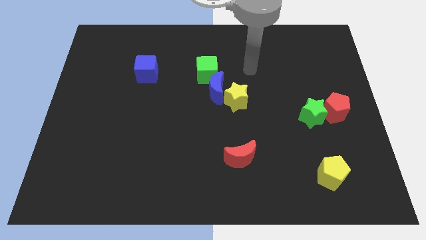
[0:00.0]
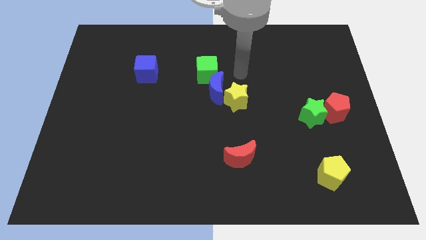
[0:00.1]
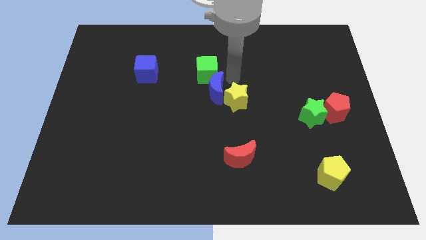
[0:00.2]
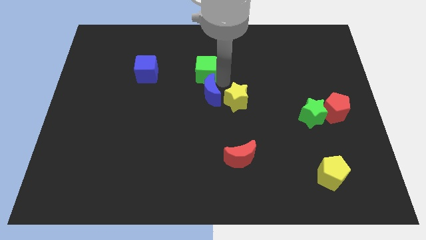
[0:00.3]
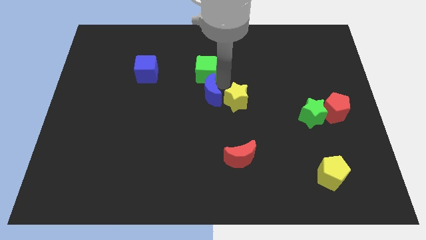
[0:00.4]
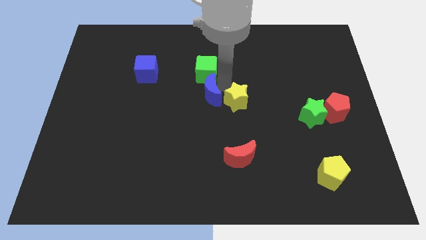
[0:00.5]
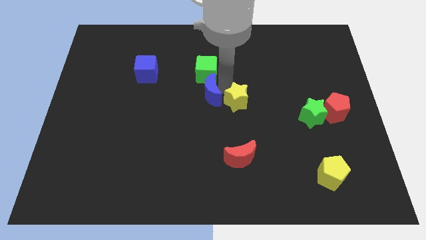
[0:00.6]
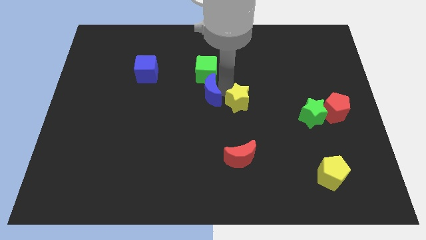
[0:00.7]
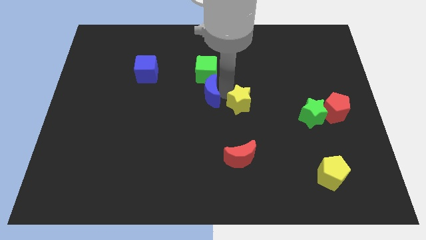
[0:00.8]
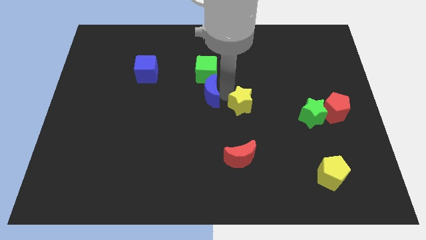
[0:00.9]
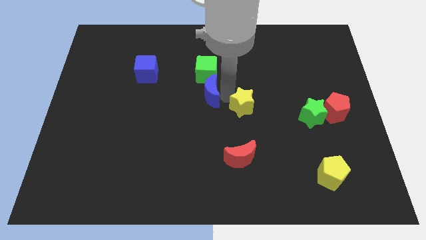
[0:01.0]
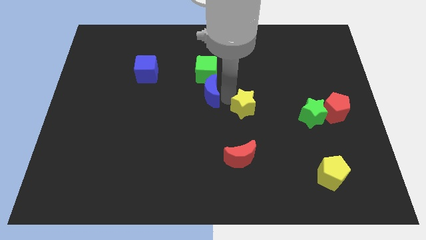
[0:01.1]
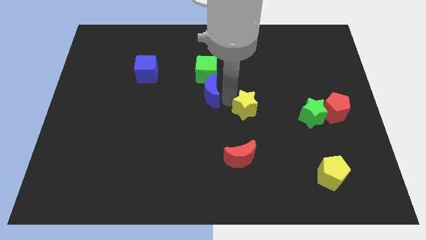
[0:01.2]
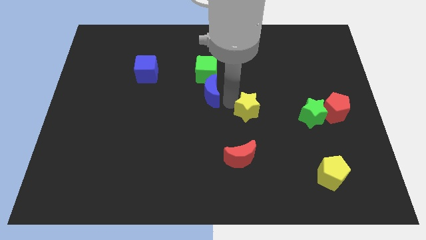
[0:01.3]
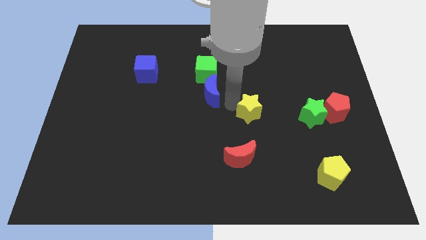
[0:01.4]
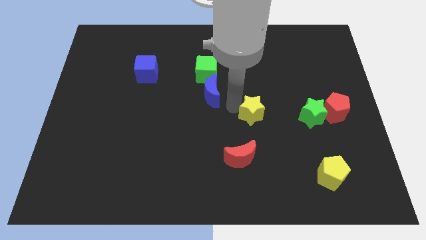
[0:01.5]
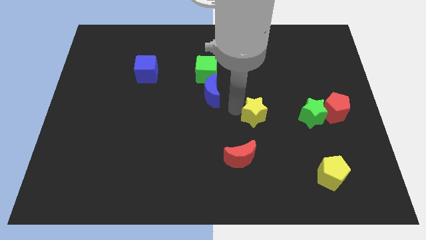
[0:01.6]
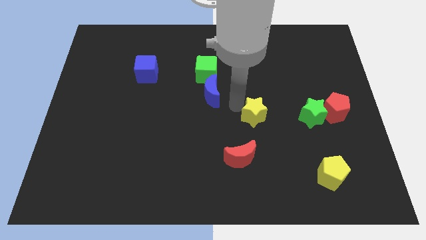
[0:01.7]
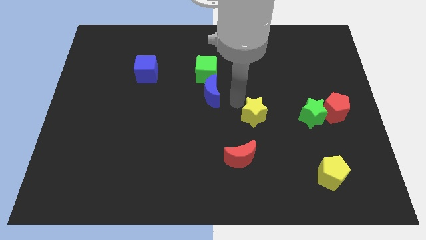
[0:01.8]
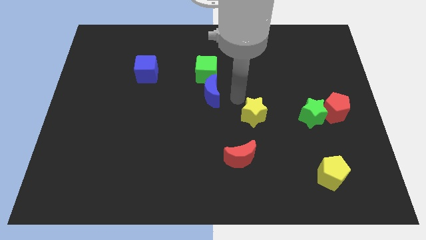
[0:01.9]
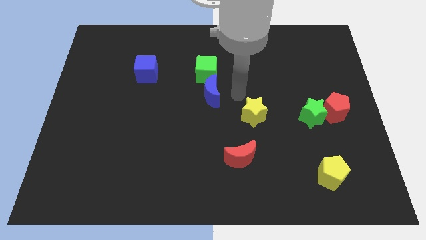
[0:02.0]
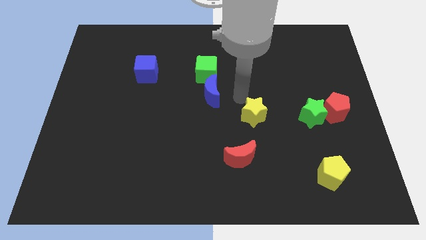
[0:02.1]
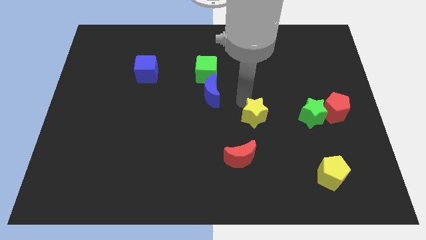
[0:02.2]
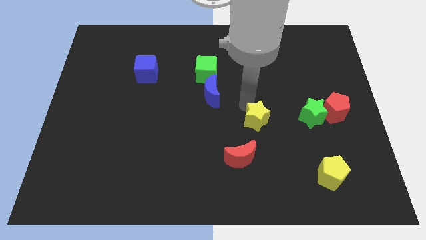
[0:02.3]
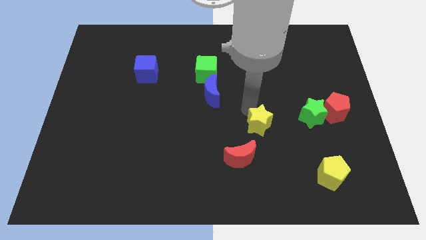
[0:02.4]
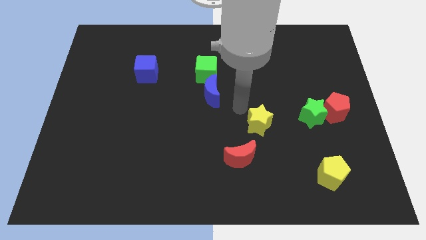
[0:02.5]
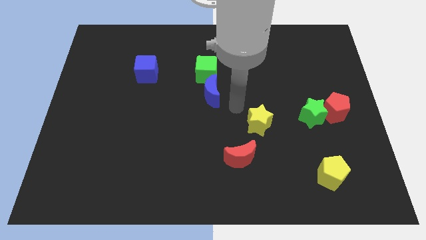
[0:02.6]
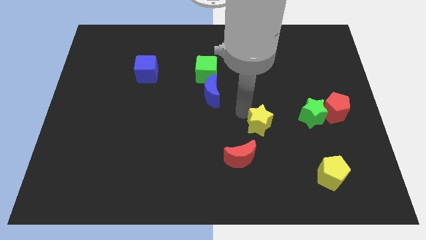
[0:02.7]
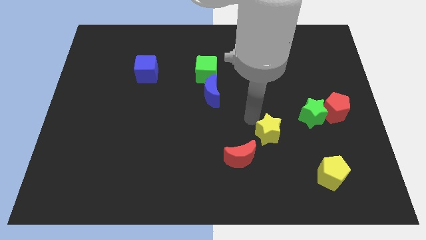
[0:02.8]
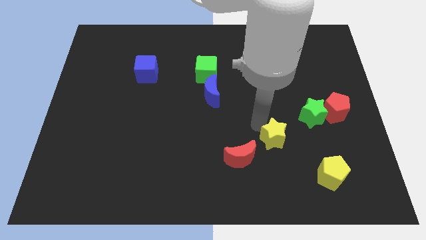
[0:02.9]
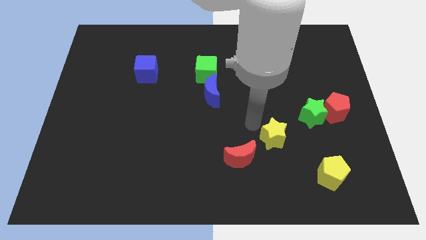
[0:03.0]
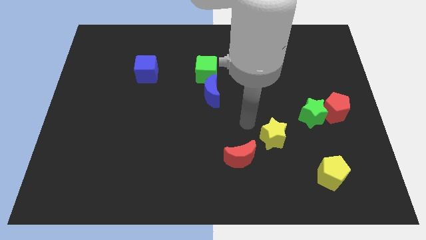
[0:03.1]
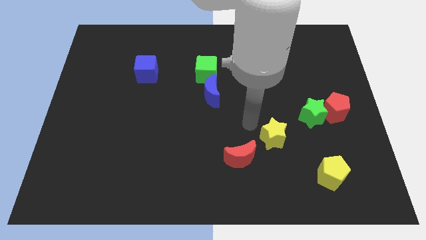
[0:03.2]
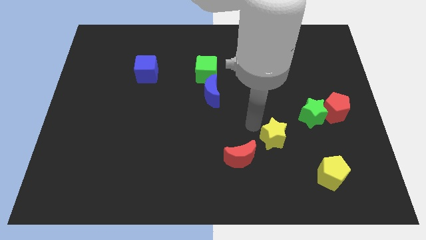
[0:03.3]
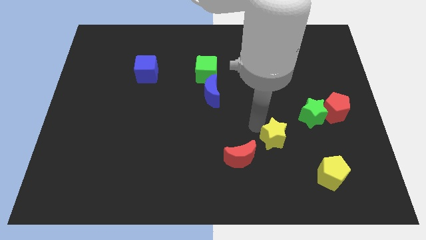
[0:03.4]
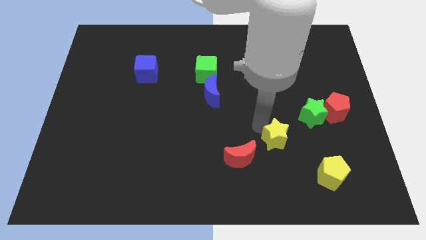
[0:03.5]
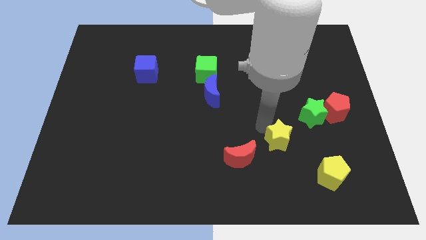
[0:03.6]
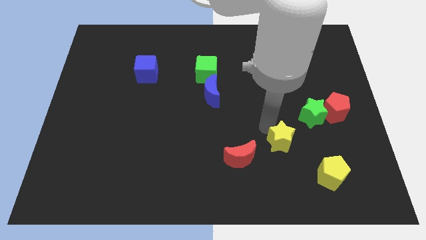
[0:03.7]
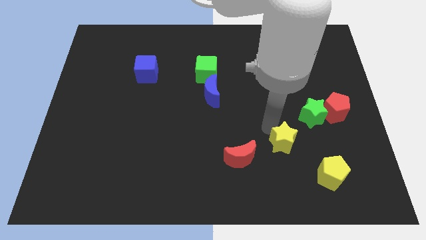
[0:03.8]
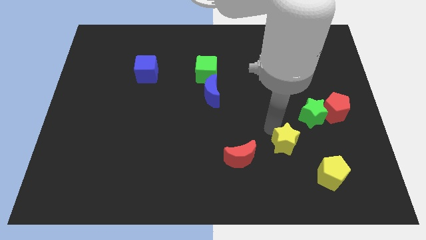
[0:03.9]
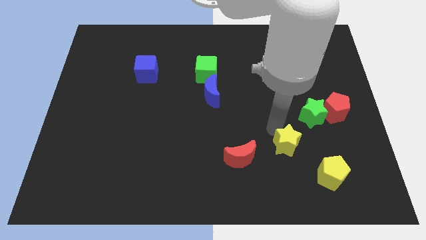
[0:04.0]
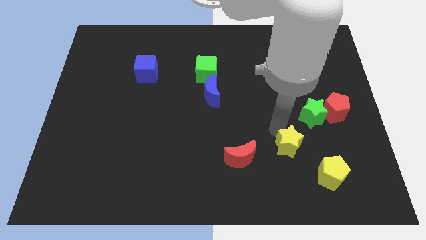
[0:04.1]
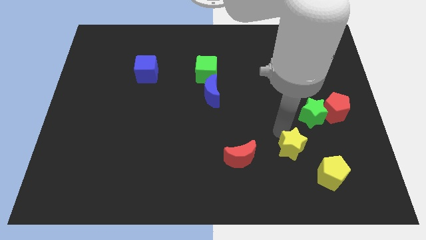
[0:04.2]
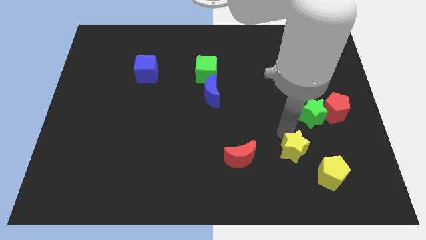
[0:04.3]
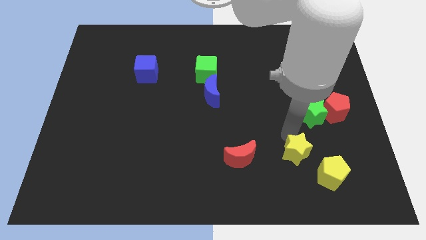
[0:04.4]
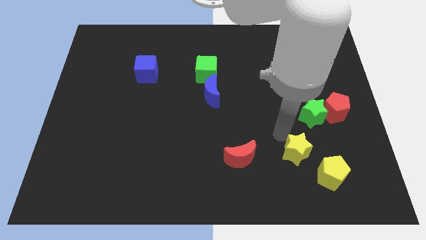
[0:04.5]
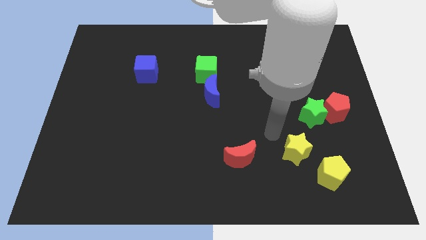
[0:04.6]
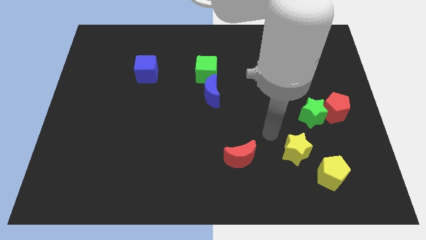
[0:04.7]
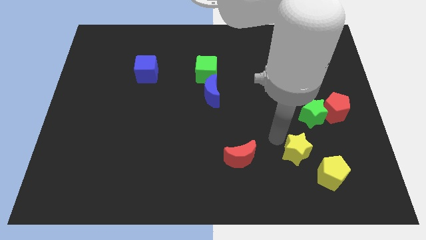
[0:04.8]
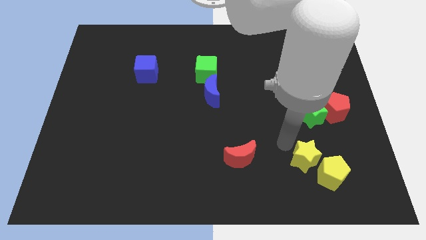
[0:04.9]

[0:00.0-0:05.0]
put the yellow star to the yellow pentagon

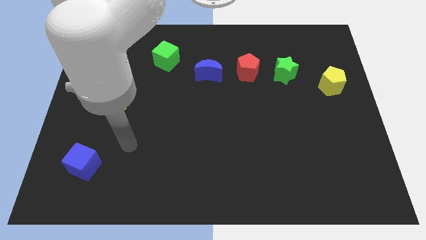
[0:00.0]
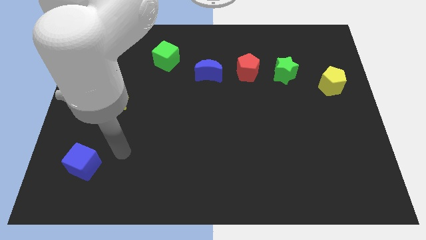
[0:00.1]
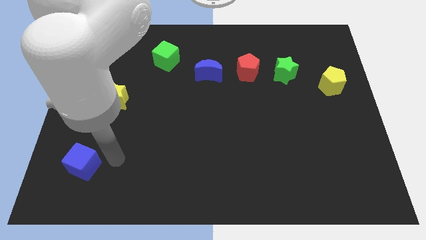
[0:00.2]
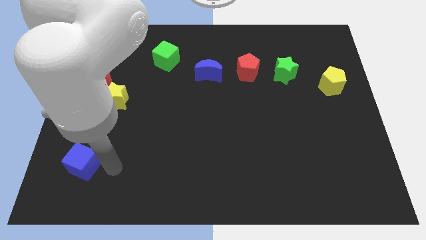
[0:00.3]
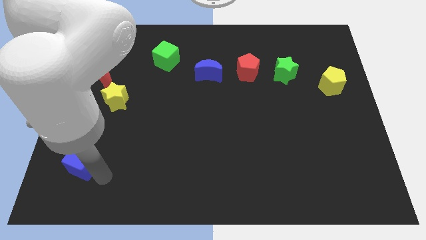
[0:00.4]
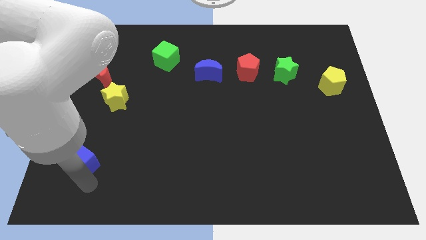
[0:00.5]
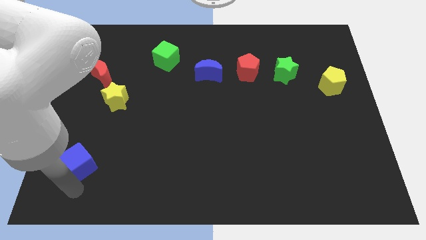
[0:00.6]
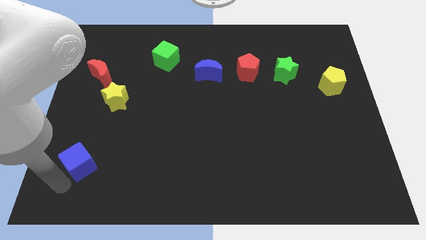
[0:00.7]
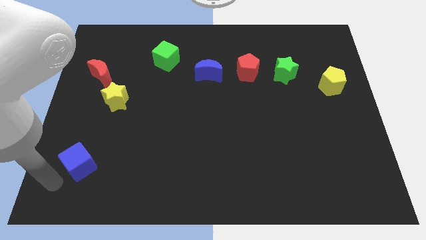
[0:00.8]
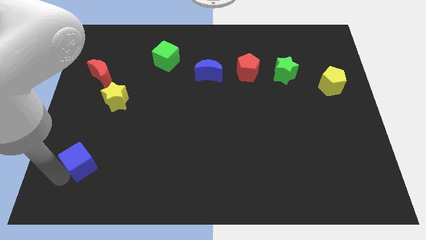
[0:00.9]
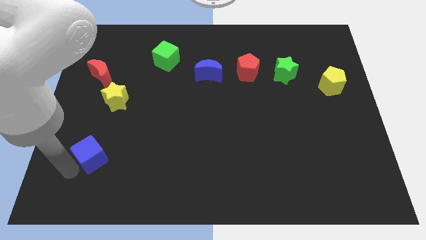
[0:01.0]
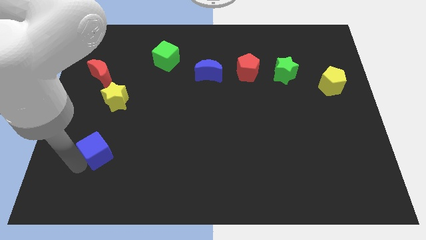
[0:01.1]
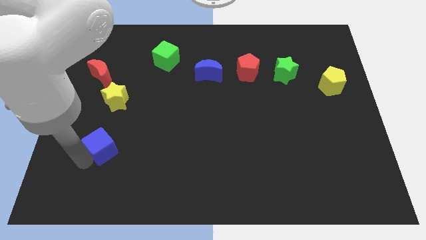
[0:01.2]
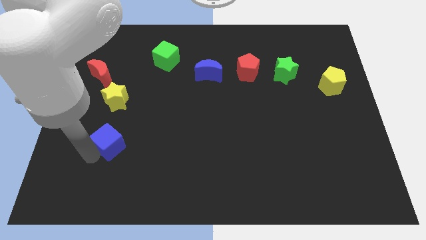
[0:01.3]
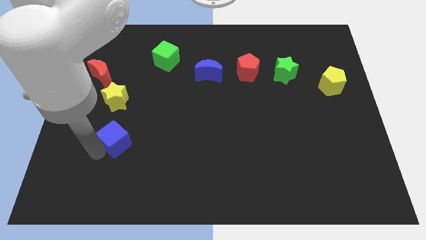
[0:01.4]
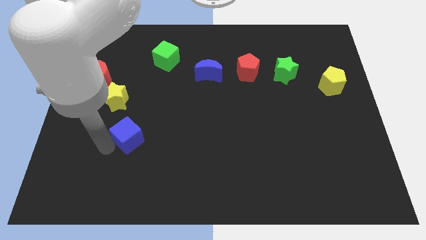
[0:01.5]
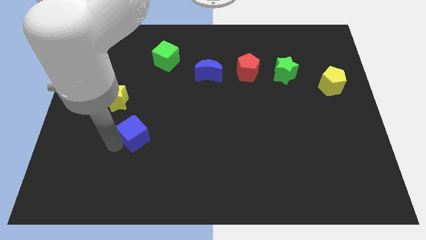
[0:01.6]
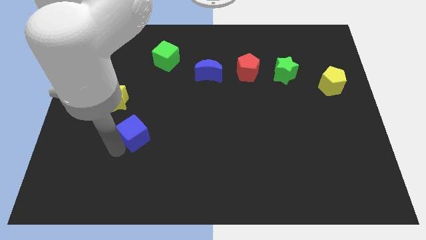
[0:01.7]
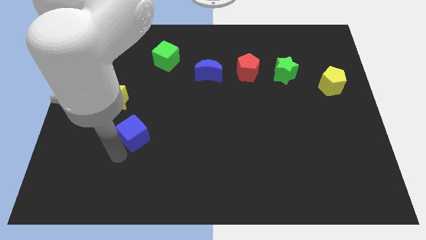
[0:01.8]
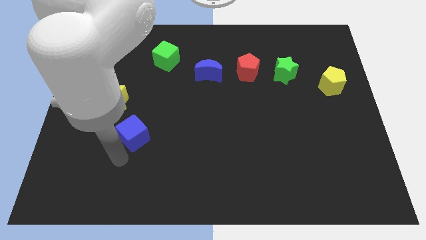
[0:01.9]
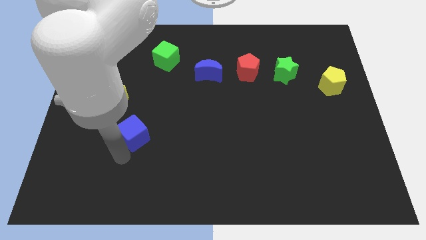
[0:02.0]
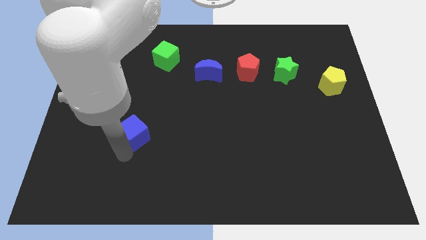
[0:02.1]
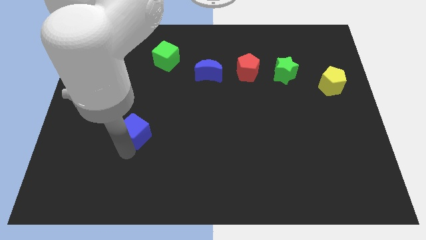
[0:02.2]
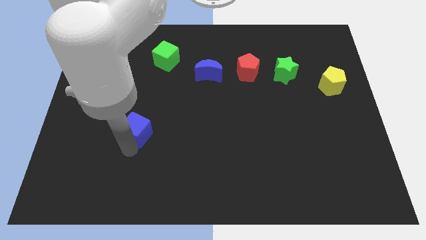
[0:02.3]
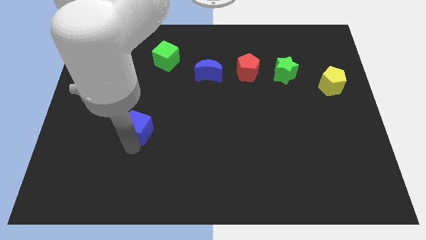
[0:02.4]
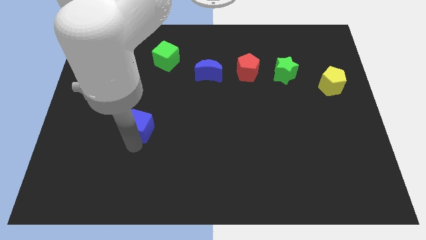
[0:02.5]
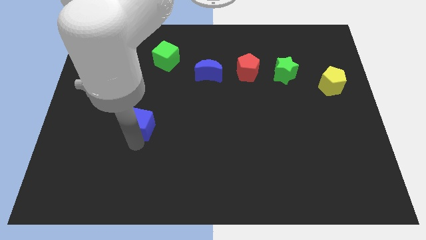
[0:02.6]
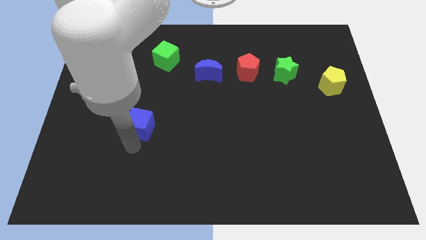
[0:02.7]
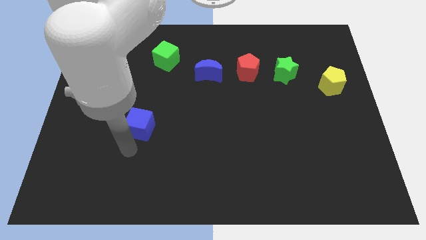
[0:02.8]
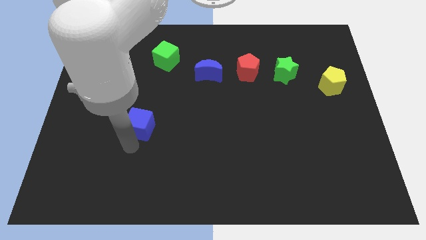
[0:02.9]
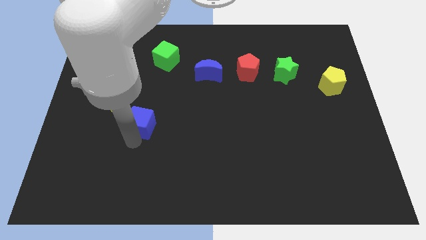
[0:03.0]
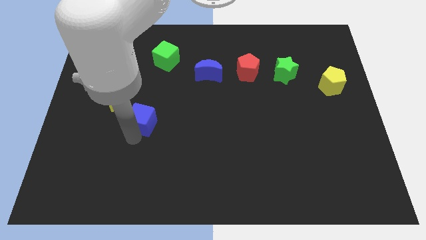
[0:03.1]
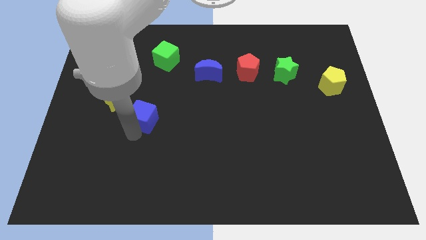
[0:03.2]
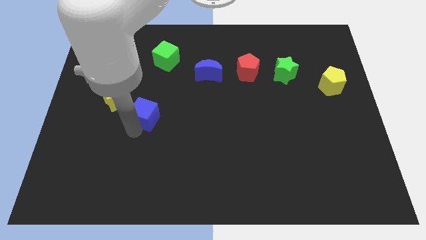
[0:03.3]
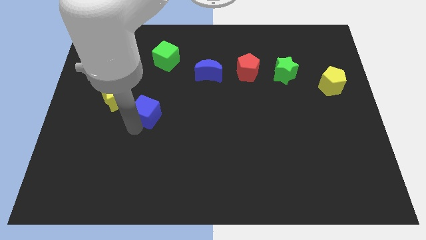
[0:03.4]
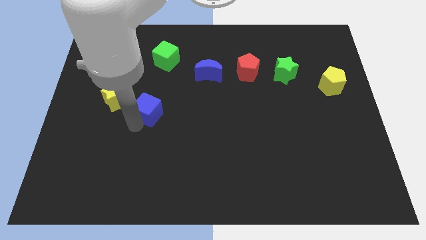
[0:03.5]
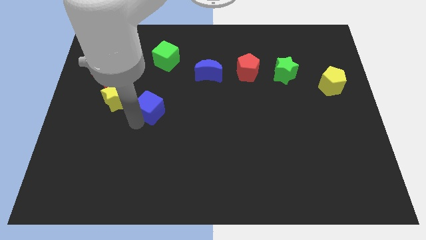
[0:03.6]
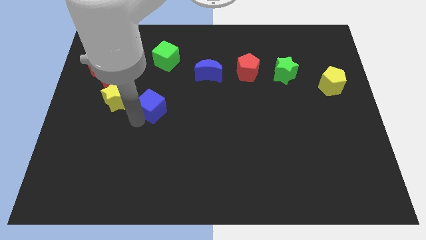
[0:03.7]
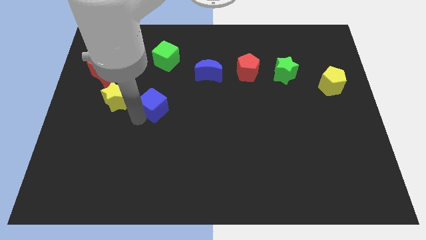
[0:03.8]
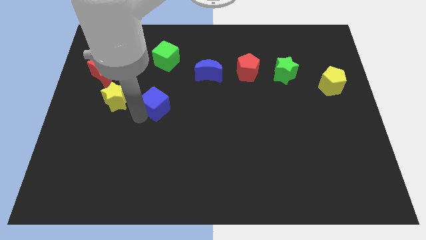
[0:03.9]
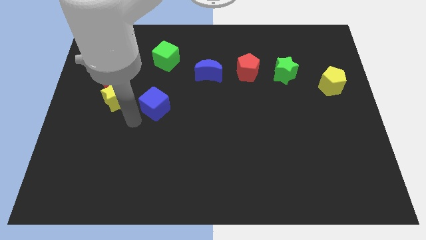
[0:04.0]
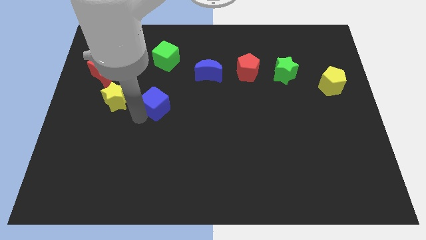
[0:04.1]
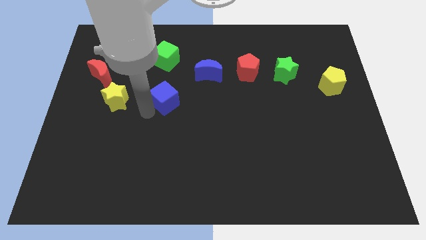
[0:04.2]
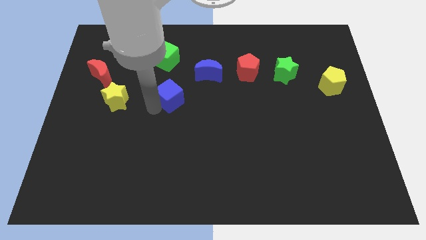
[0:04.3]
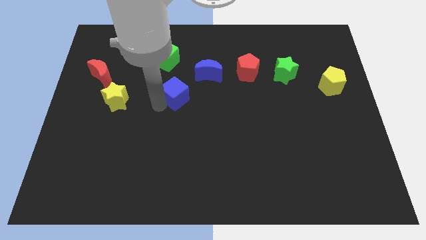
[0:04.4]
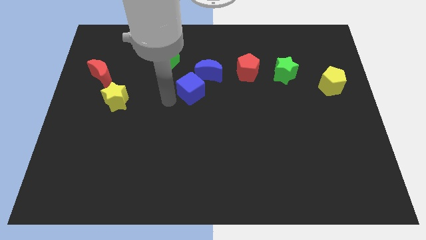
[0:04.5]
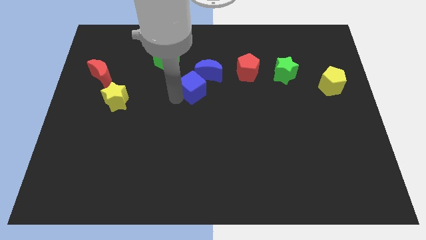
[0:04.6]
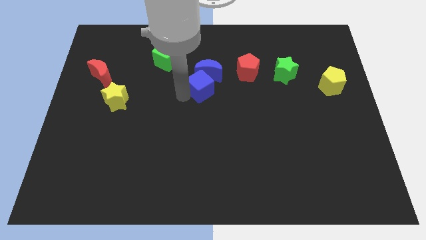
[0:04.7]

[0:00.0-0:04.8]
push the blue cube close to the blue moon
